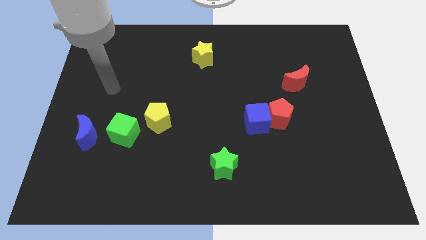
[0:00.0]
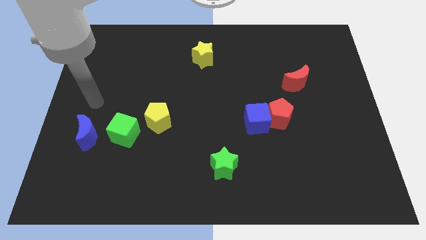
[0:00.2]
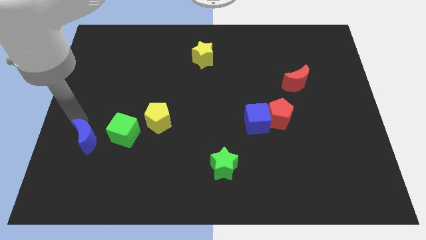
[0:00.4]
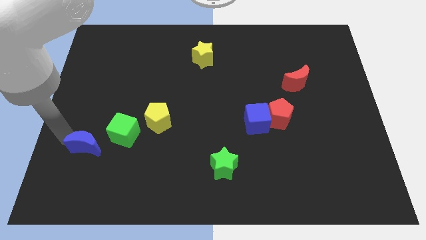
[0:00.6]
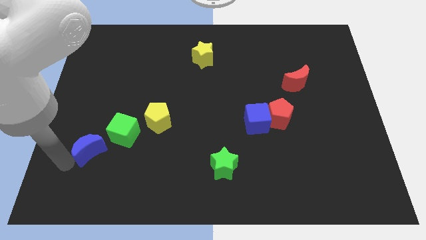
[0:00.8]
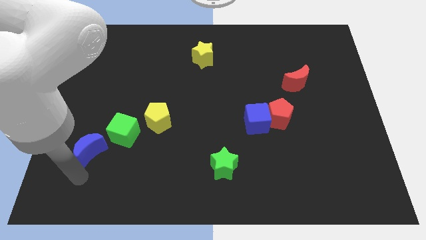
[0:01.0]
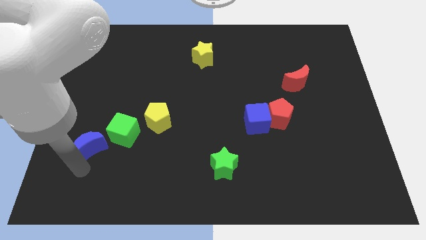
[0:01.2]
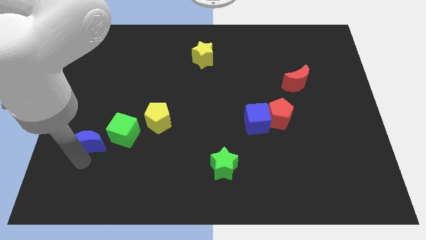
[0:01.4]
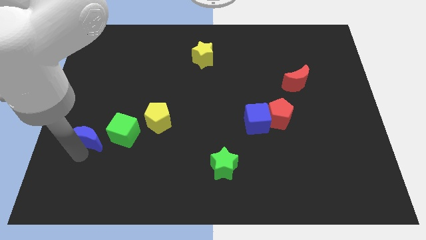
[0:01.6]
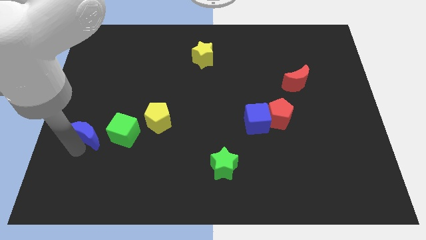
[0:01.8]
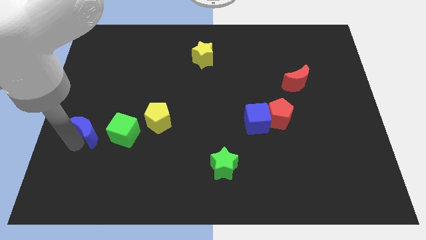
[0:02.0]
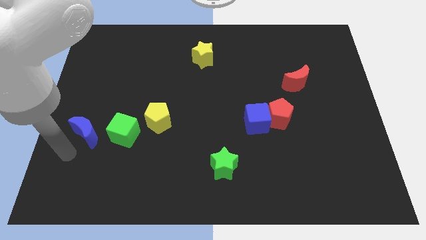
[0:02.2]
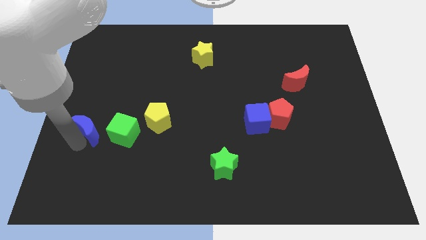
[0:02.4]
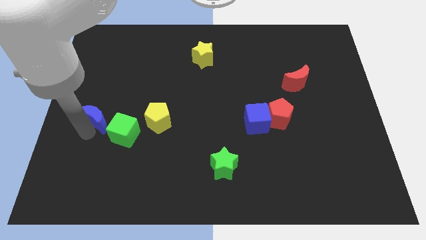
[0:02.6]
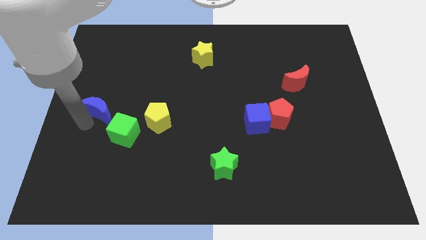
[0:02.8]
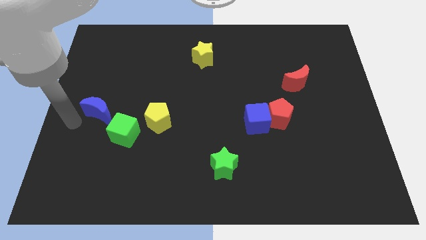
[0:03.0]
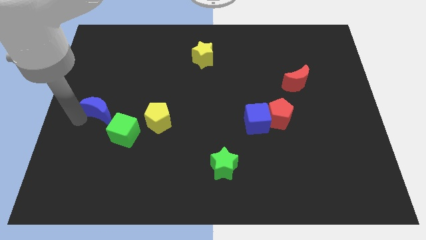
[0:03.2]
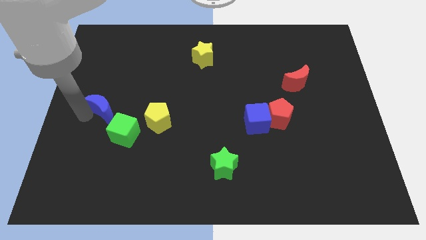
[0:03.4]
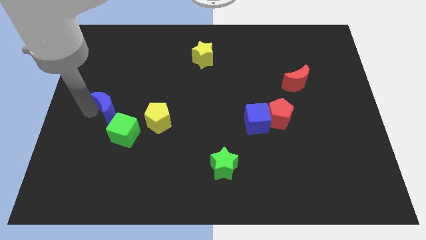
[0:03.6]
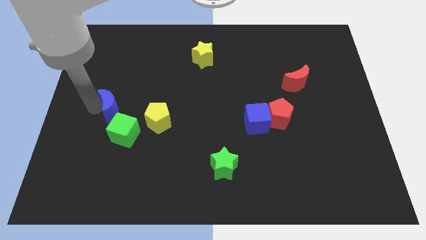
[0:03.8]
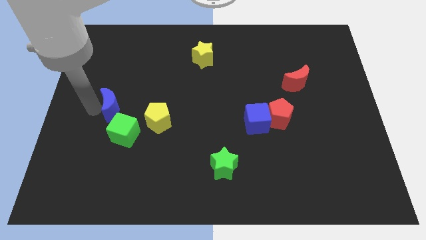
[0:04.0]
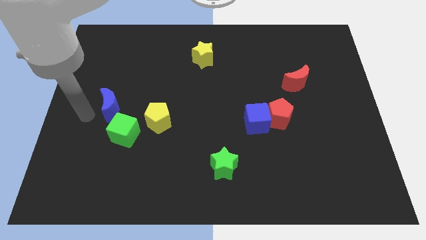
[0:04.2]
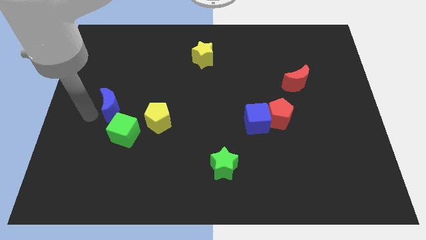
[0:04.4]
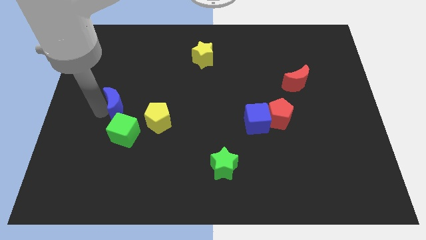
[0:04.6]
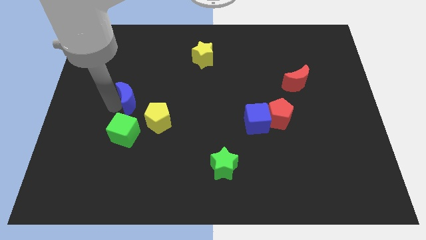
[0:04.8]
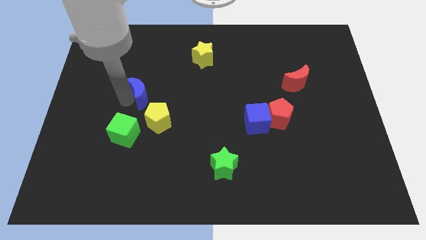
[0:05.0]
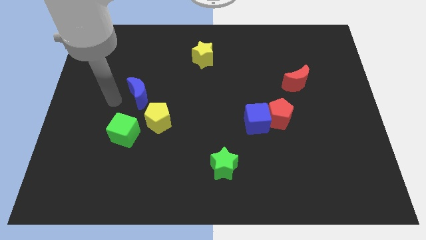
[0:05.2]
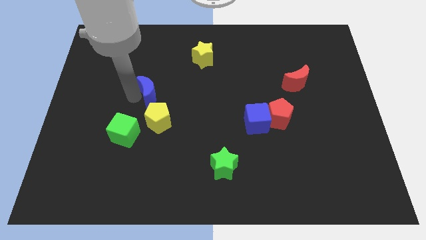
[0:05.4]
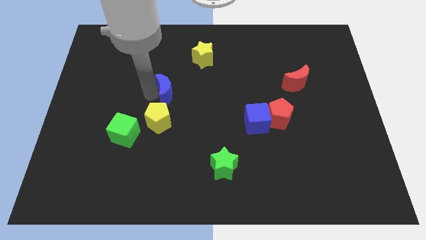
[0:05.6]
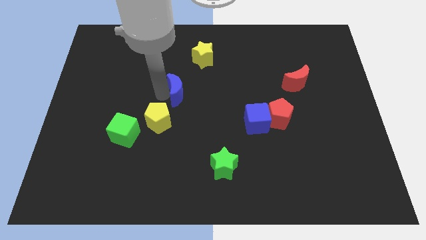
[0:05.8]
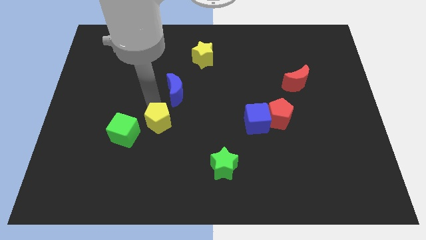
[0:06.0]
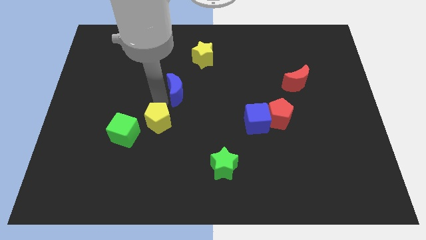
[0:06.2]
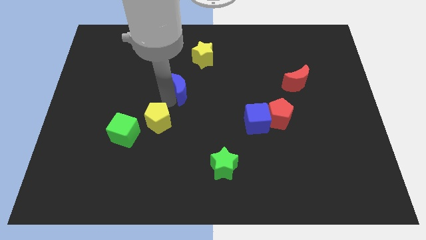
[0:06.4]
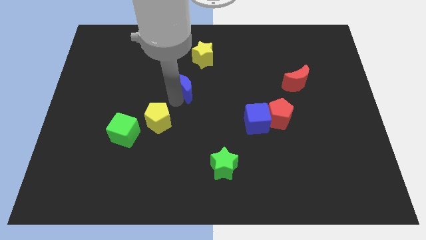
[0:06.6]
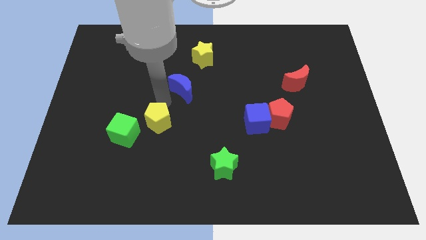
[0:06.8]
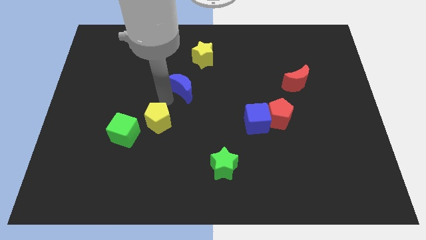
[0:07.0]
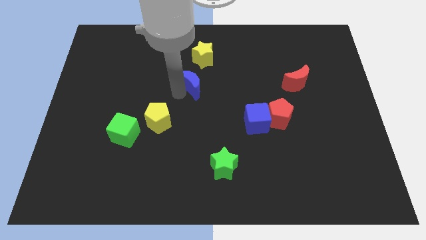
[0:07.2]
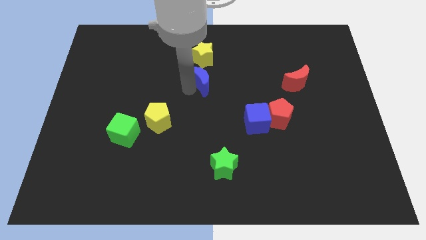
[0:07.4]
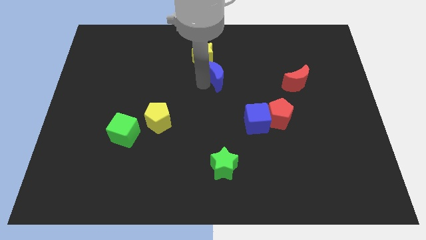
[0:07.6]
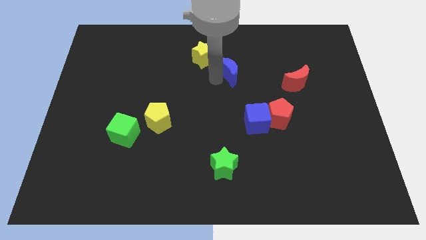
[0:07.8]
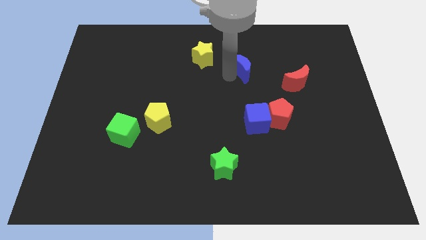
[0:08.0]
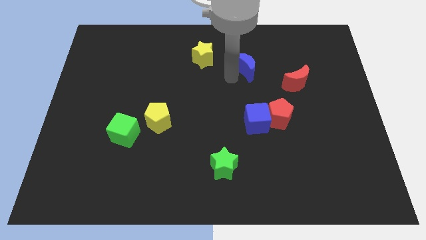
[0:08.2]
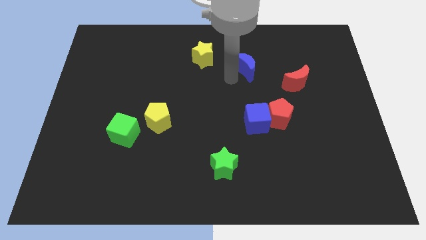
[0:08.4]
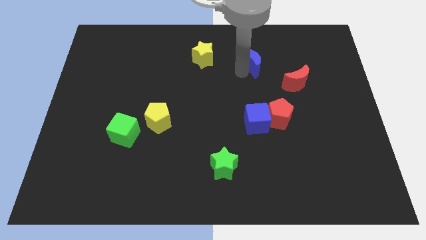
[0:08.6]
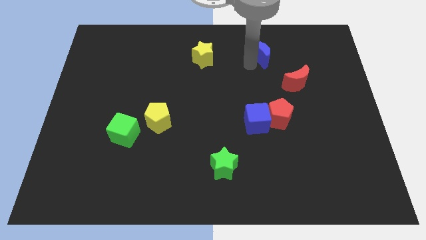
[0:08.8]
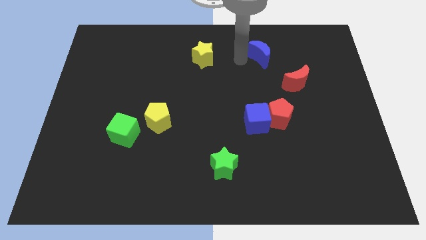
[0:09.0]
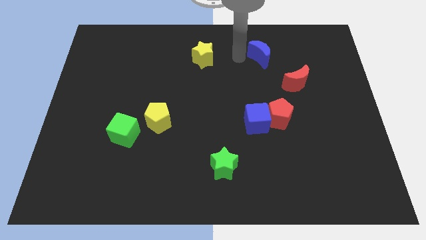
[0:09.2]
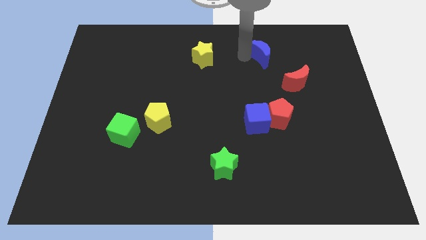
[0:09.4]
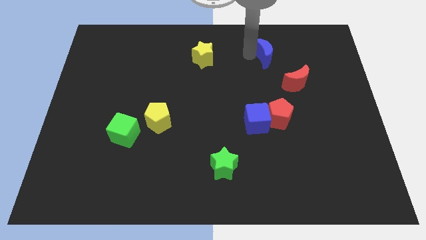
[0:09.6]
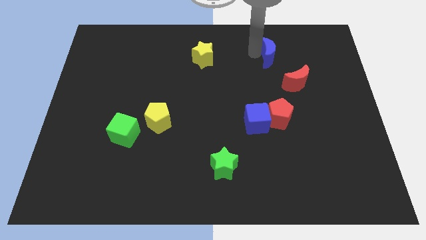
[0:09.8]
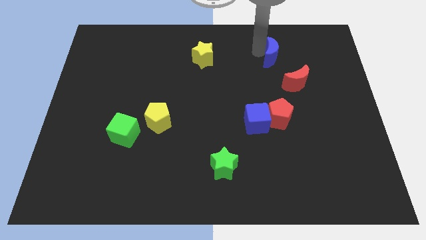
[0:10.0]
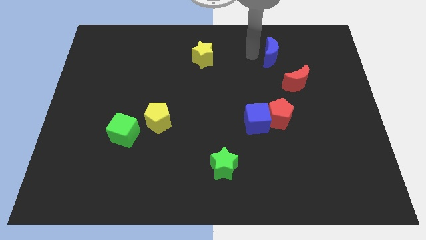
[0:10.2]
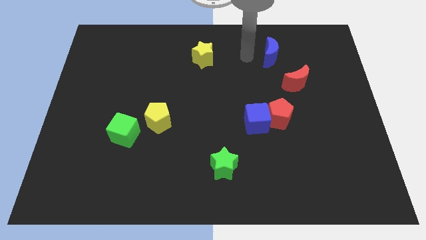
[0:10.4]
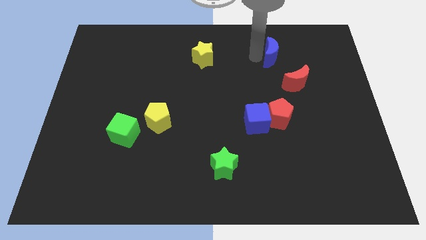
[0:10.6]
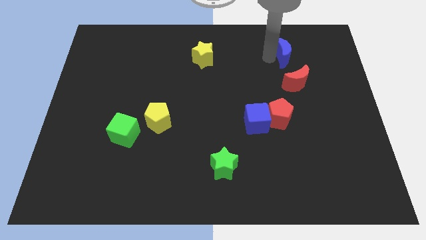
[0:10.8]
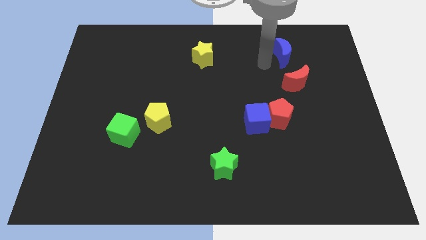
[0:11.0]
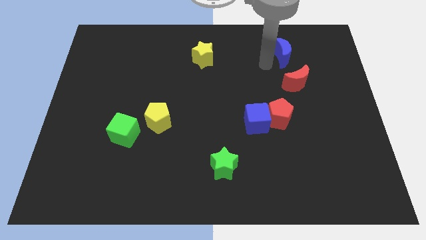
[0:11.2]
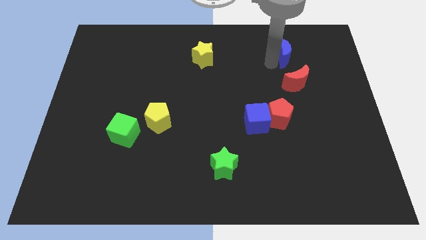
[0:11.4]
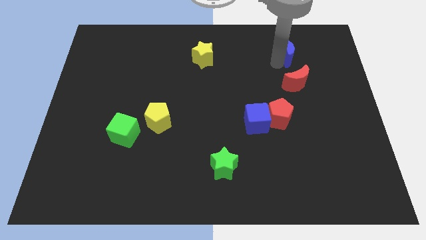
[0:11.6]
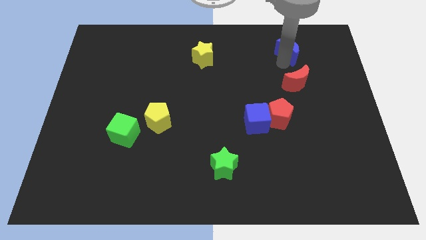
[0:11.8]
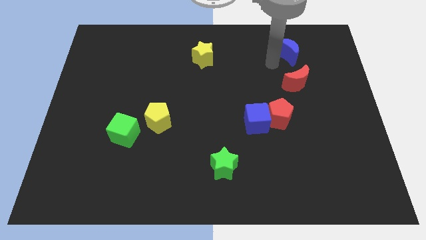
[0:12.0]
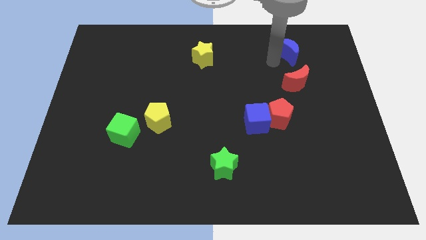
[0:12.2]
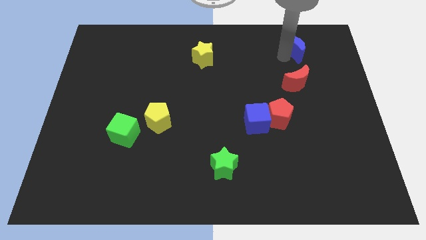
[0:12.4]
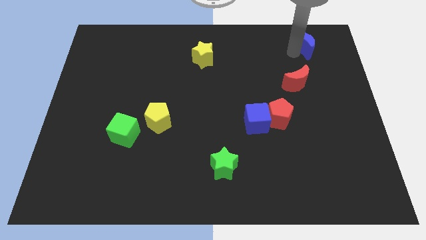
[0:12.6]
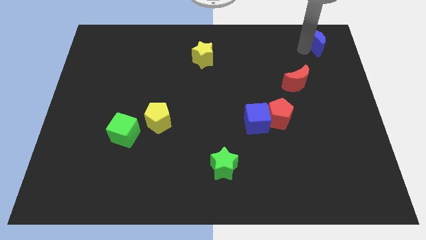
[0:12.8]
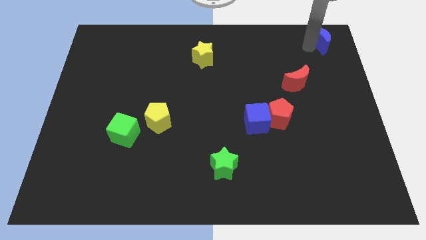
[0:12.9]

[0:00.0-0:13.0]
slide the blue moon to the upper right corner
